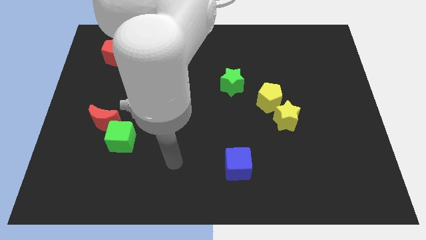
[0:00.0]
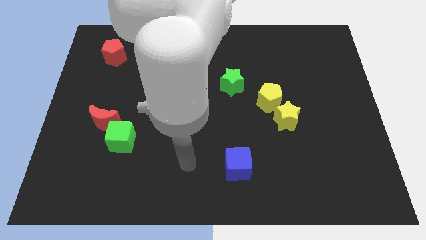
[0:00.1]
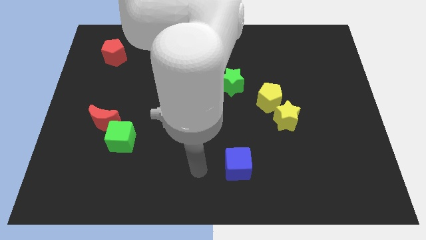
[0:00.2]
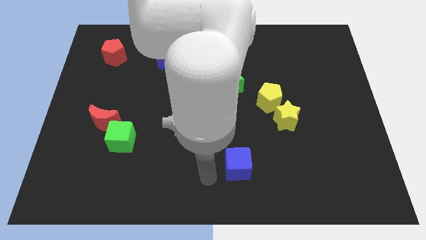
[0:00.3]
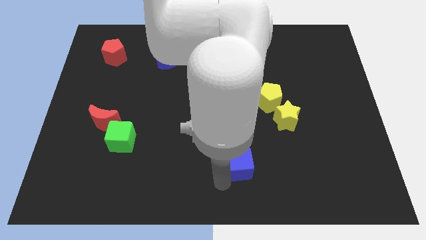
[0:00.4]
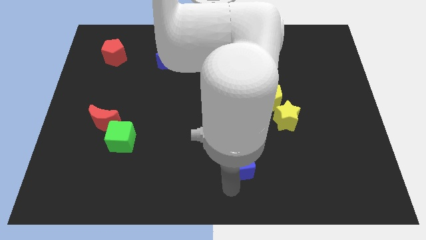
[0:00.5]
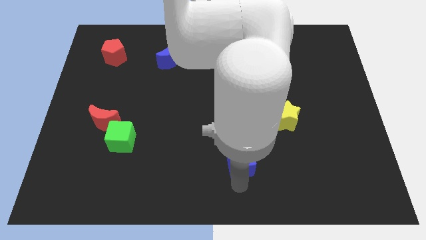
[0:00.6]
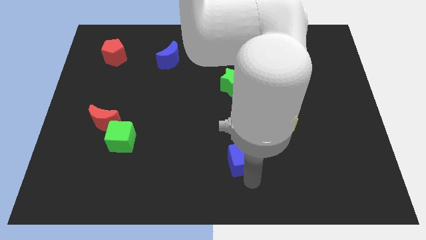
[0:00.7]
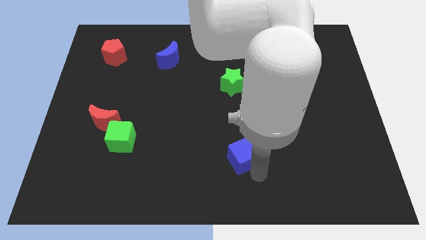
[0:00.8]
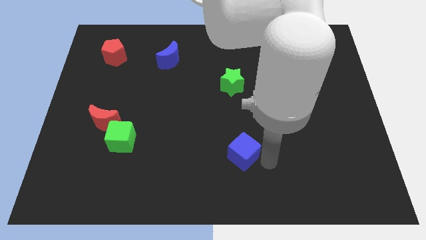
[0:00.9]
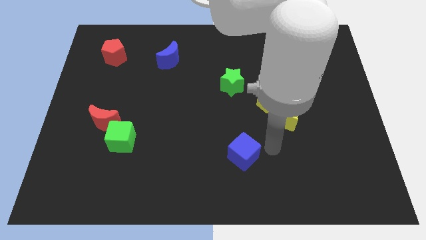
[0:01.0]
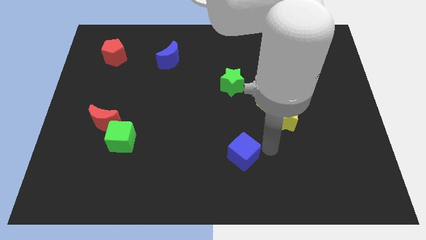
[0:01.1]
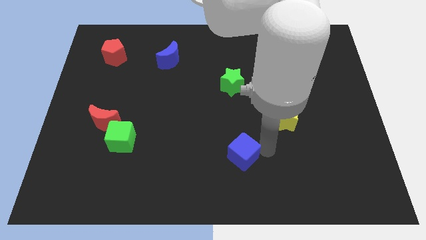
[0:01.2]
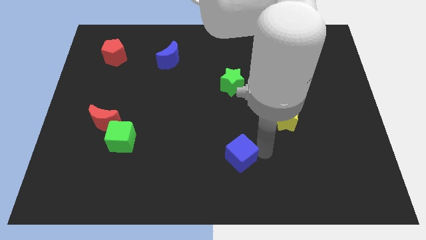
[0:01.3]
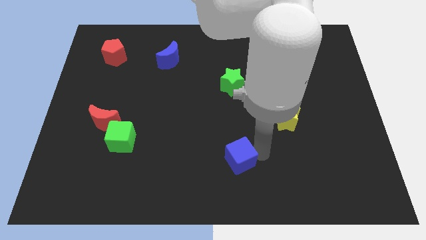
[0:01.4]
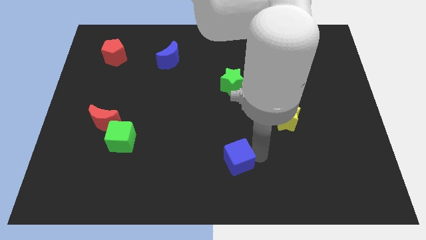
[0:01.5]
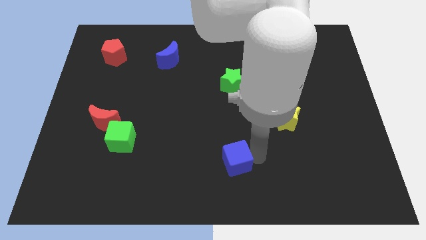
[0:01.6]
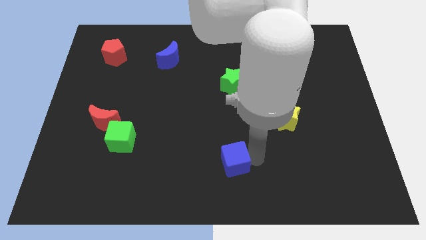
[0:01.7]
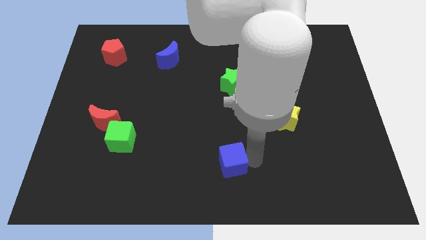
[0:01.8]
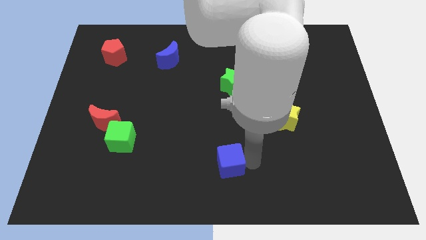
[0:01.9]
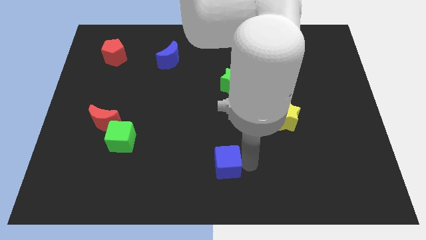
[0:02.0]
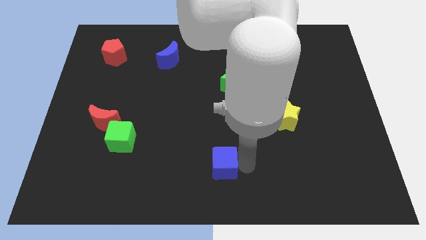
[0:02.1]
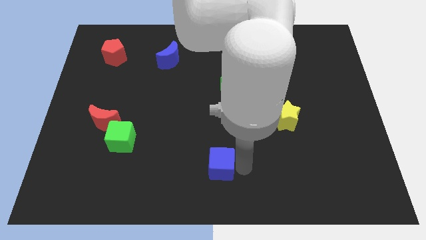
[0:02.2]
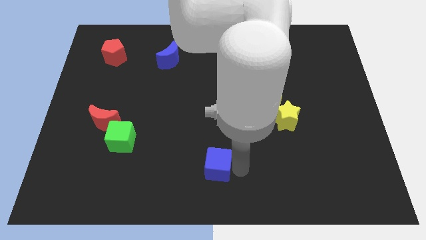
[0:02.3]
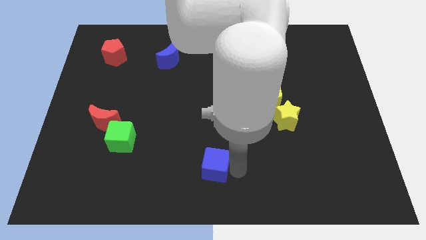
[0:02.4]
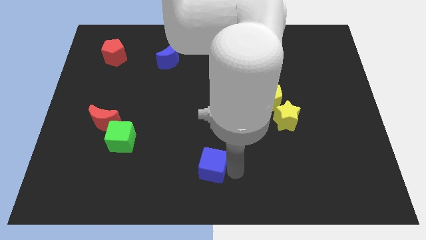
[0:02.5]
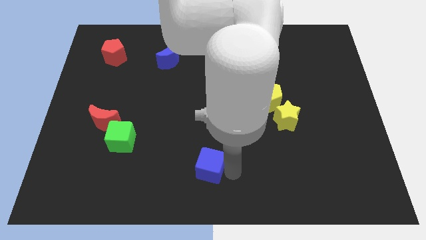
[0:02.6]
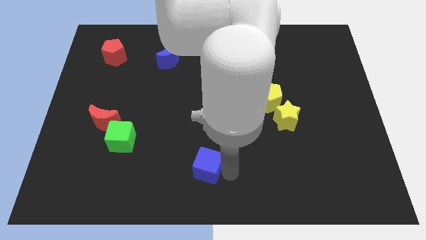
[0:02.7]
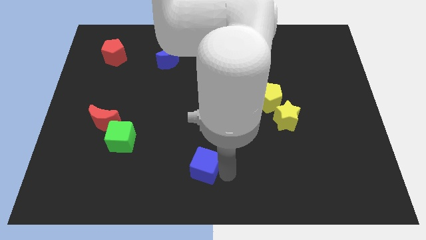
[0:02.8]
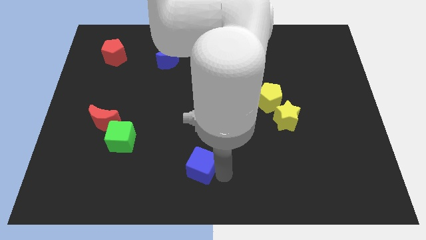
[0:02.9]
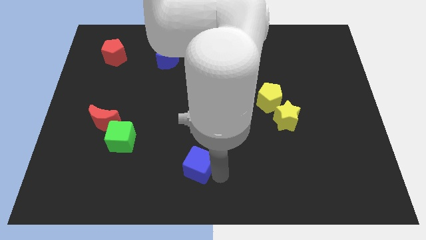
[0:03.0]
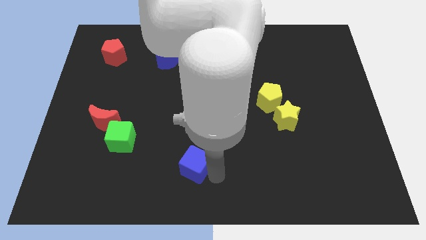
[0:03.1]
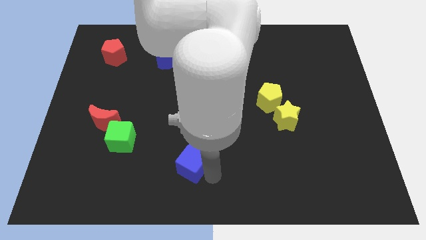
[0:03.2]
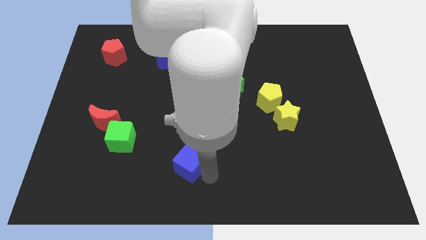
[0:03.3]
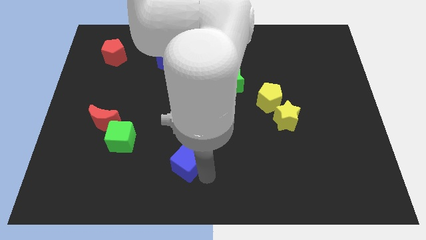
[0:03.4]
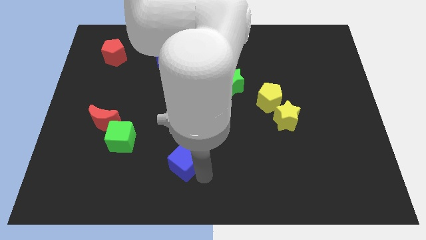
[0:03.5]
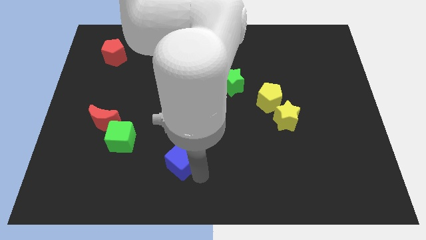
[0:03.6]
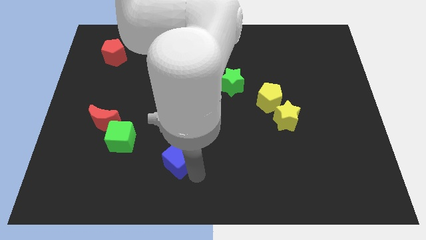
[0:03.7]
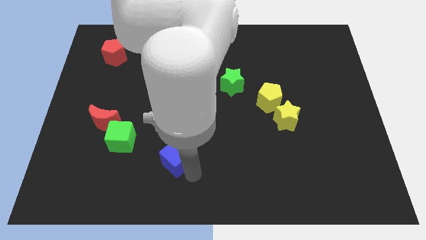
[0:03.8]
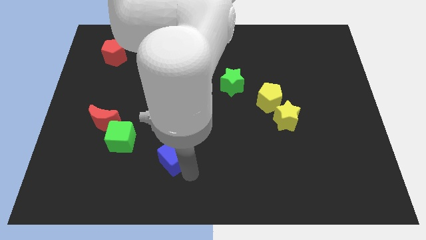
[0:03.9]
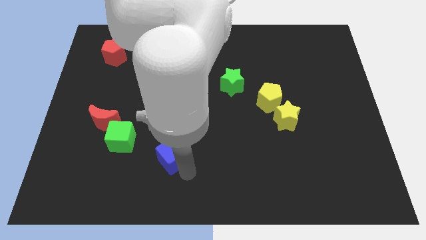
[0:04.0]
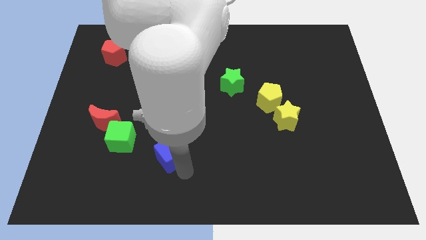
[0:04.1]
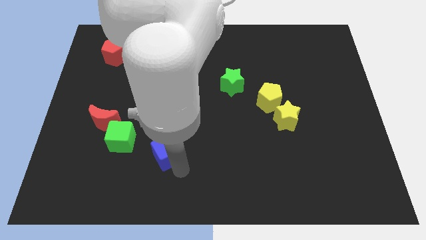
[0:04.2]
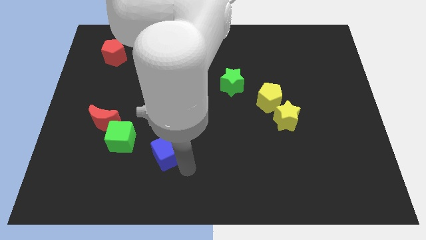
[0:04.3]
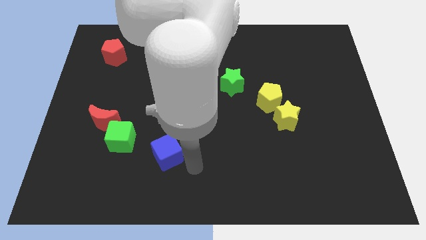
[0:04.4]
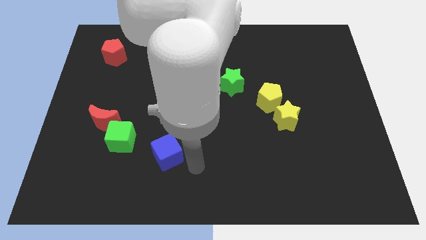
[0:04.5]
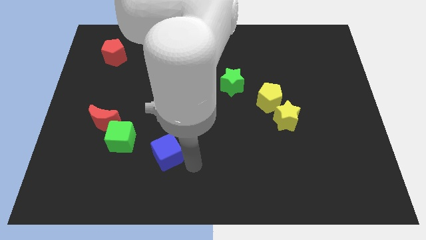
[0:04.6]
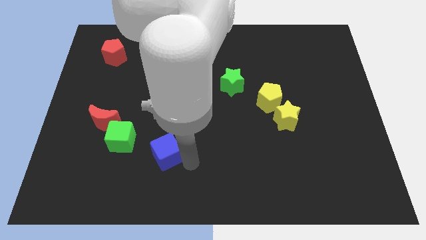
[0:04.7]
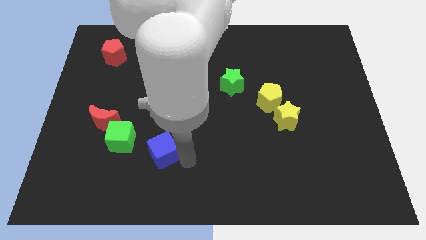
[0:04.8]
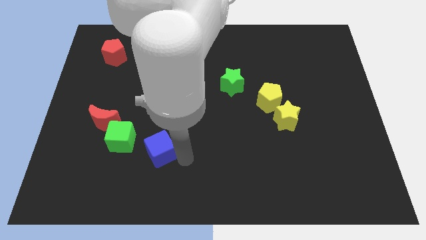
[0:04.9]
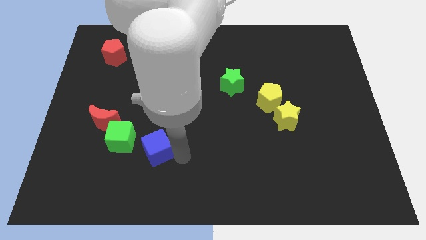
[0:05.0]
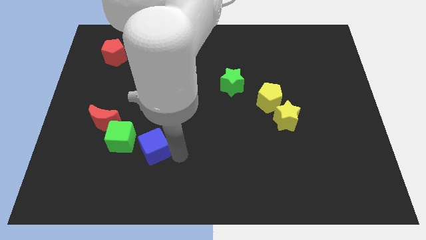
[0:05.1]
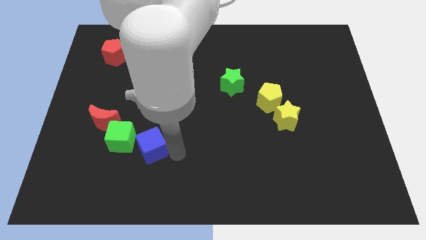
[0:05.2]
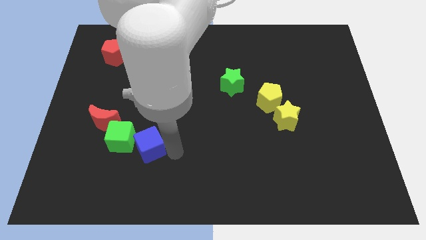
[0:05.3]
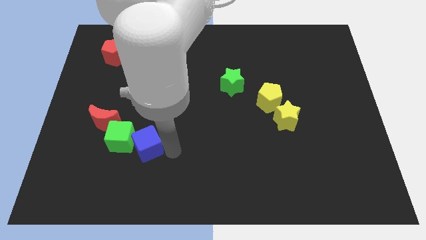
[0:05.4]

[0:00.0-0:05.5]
push the blue cube close to the green cube

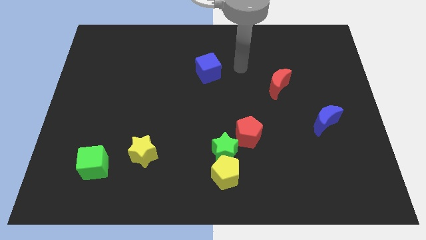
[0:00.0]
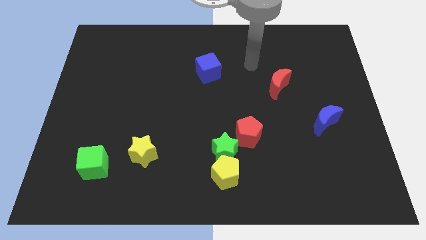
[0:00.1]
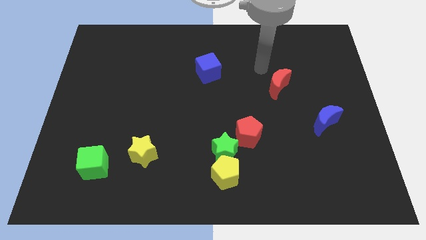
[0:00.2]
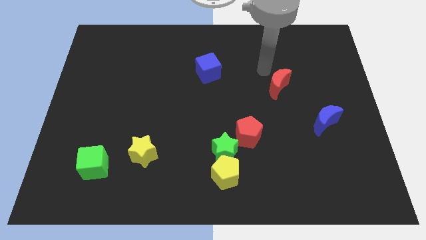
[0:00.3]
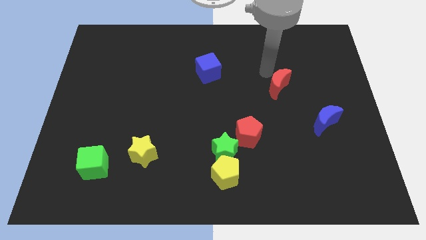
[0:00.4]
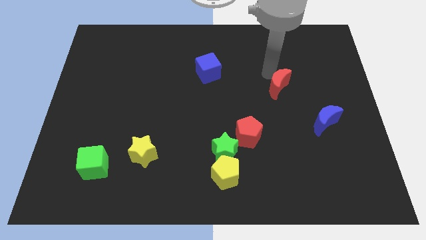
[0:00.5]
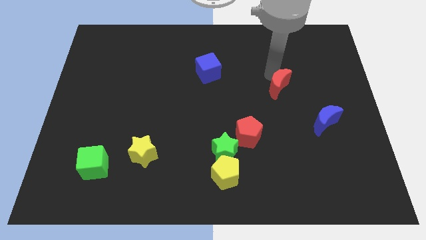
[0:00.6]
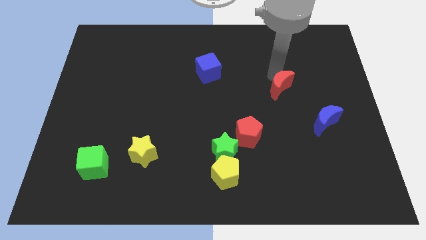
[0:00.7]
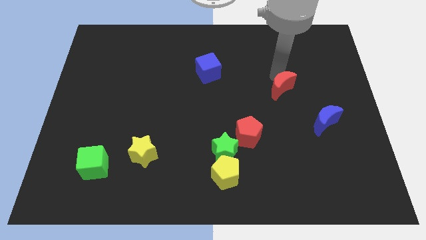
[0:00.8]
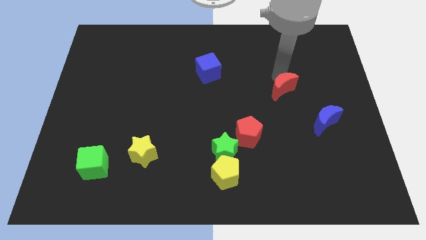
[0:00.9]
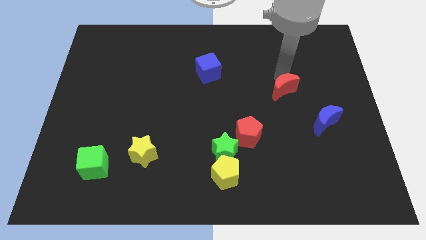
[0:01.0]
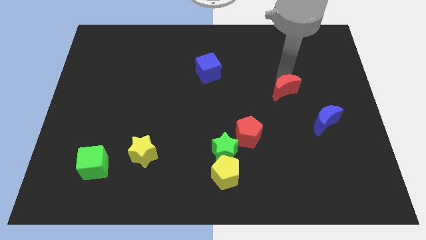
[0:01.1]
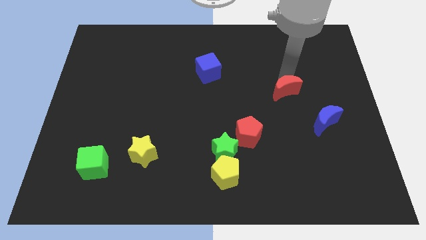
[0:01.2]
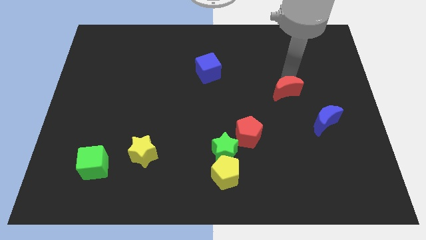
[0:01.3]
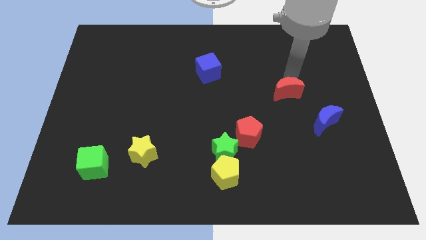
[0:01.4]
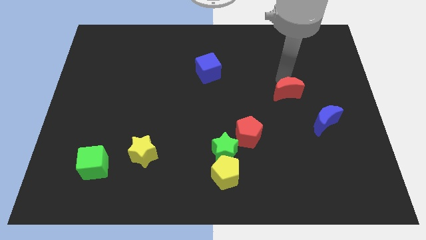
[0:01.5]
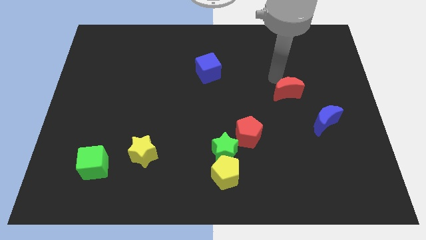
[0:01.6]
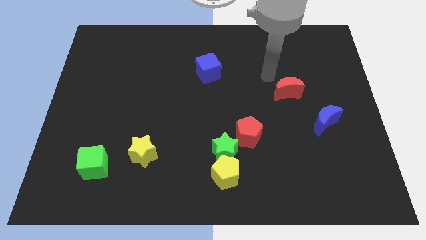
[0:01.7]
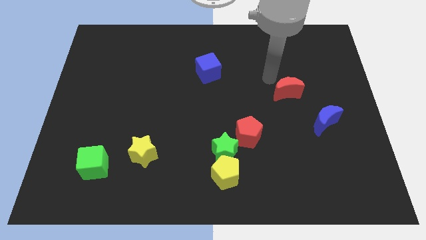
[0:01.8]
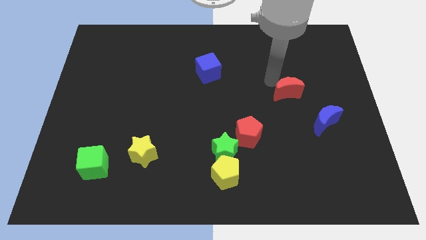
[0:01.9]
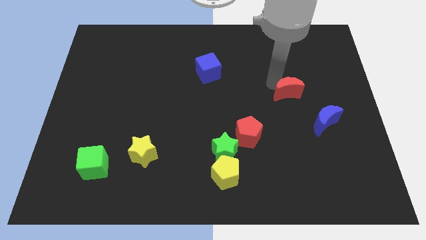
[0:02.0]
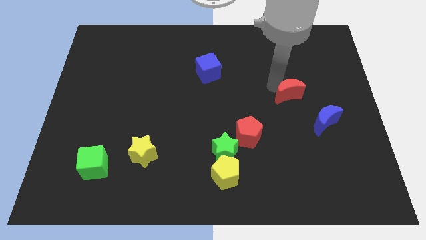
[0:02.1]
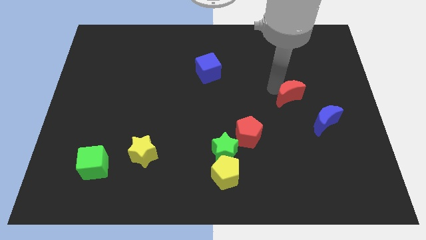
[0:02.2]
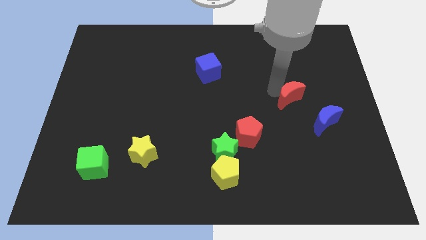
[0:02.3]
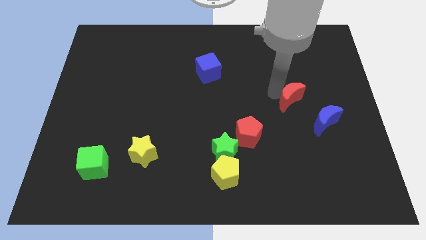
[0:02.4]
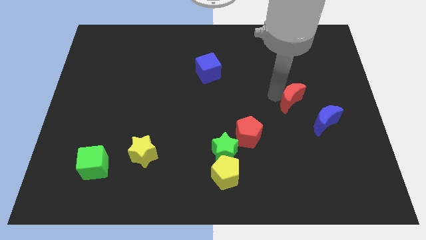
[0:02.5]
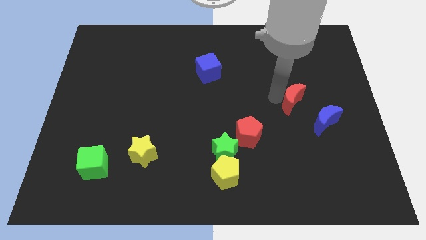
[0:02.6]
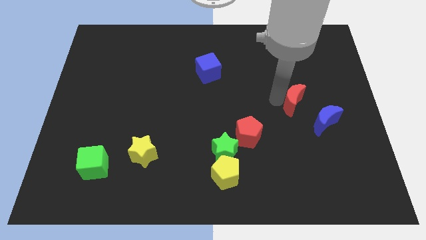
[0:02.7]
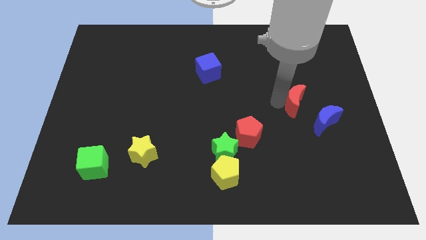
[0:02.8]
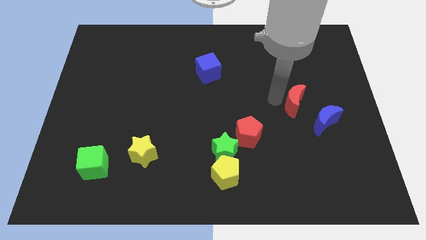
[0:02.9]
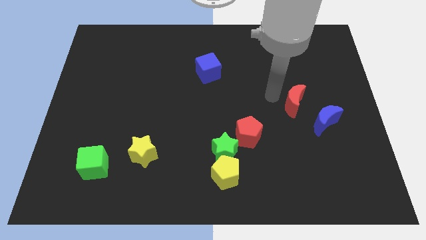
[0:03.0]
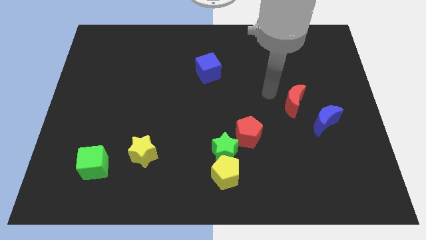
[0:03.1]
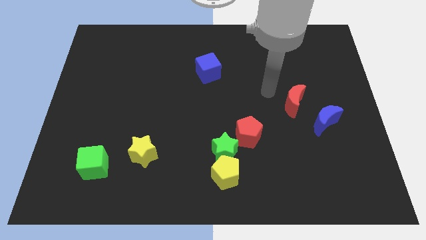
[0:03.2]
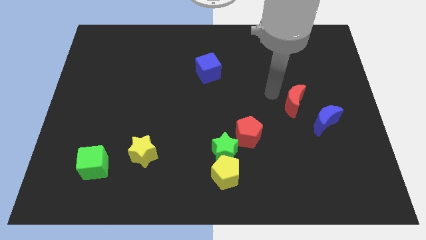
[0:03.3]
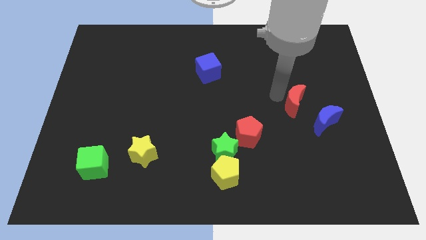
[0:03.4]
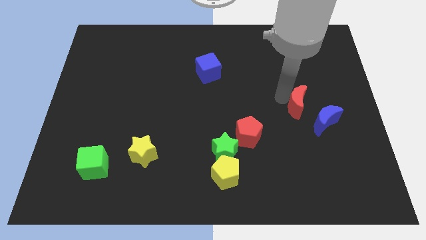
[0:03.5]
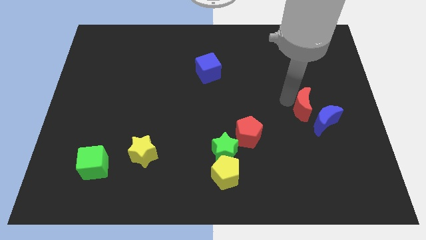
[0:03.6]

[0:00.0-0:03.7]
push the red moon towards the blue moon
